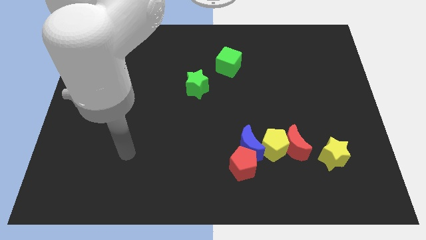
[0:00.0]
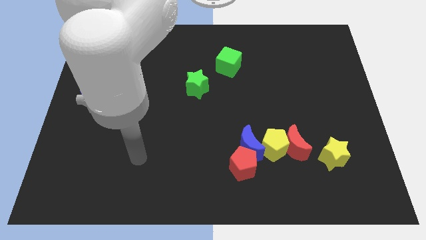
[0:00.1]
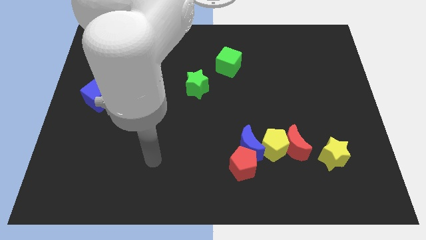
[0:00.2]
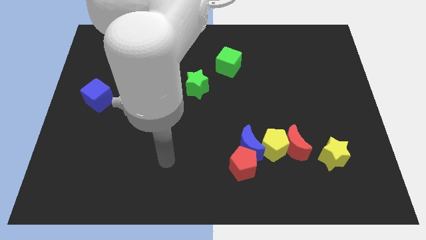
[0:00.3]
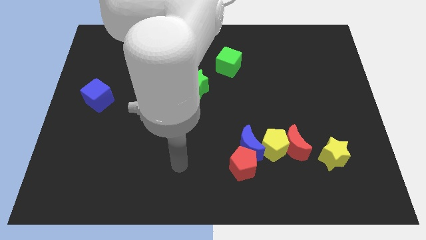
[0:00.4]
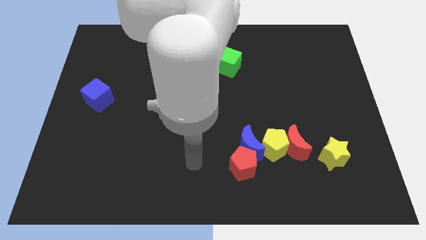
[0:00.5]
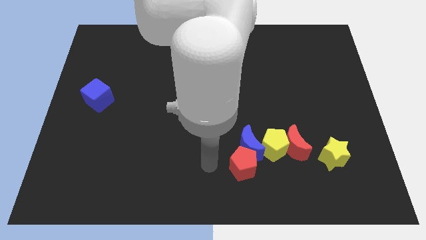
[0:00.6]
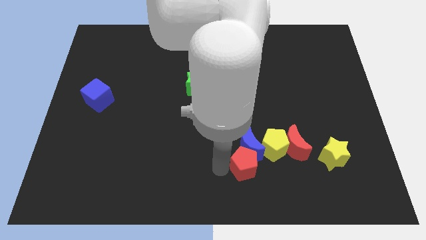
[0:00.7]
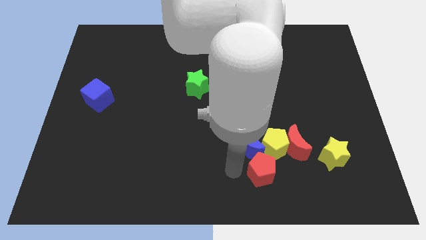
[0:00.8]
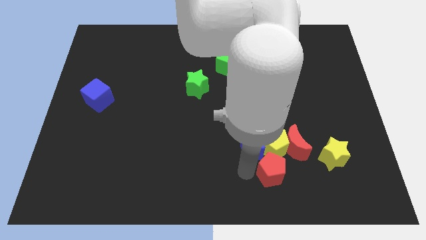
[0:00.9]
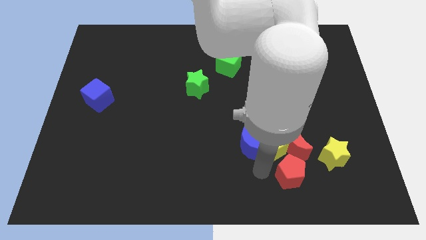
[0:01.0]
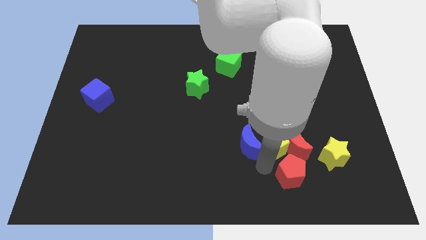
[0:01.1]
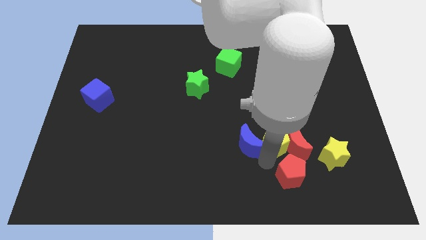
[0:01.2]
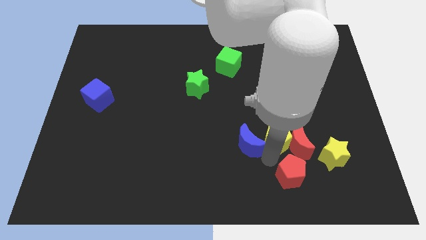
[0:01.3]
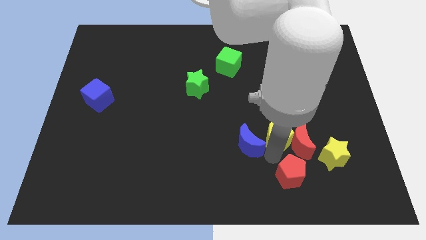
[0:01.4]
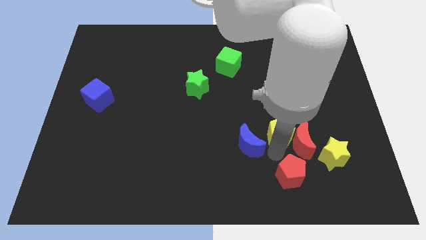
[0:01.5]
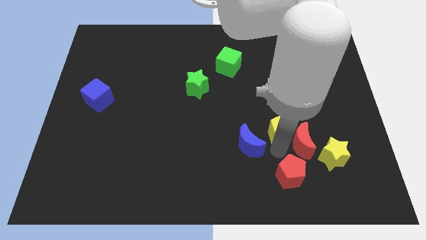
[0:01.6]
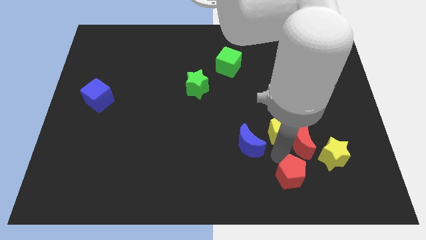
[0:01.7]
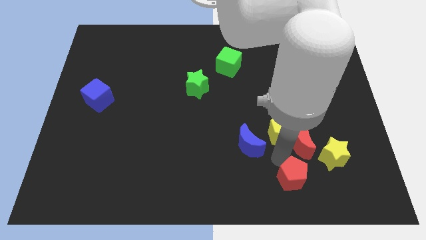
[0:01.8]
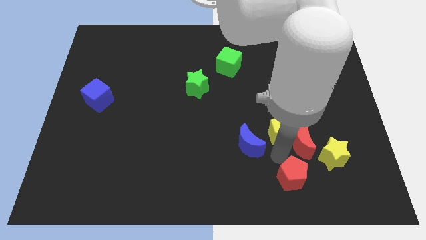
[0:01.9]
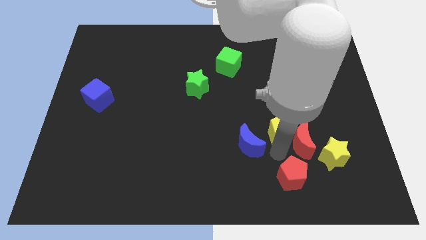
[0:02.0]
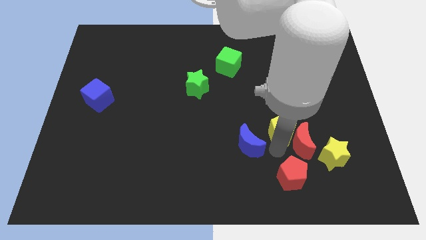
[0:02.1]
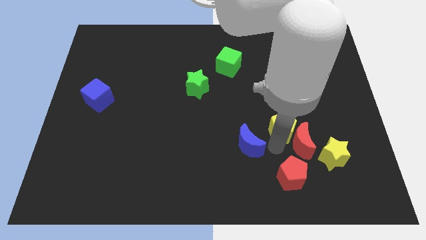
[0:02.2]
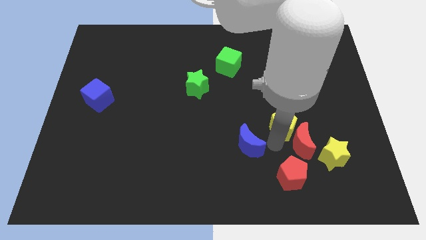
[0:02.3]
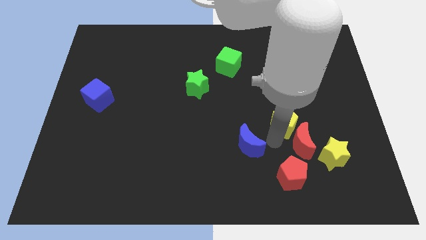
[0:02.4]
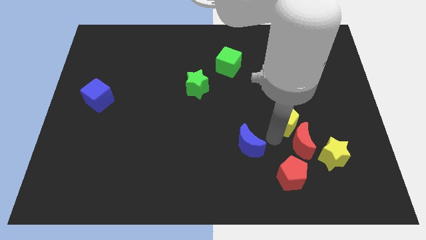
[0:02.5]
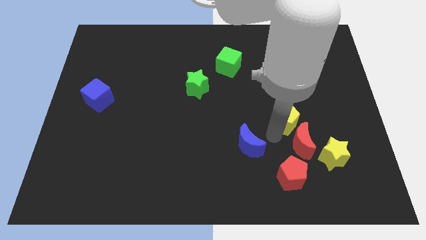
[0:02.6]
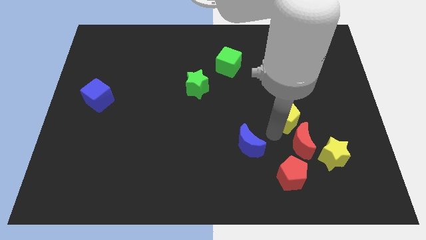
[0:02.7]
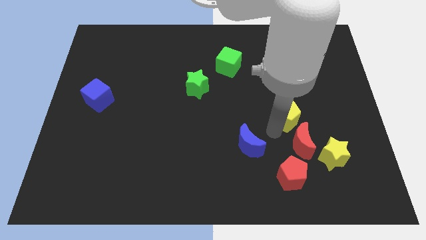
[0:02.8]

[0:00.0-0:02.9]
move the yellow pentagon away from the group

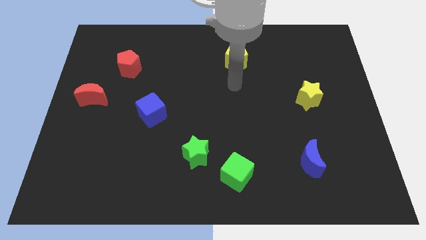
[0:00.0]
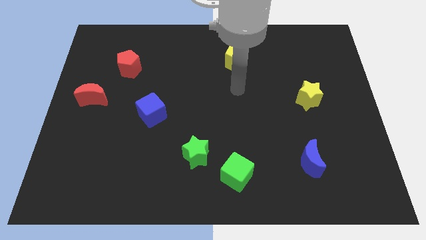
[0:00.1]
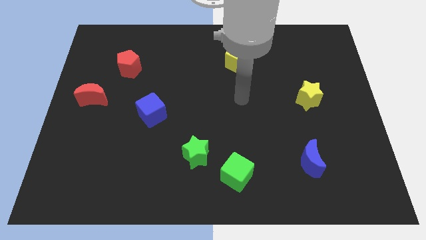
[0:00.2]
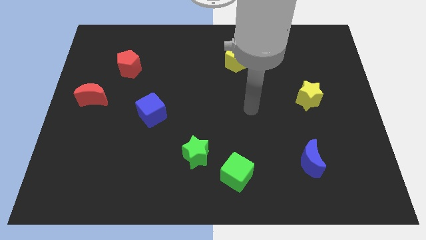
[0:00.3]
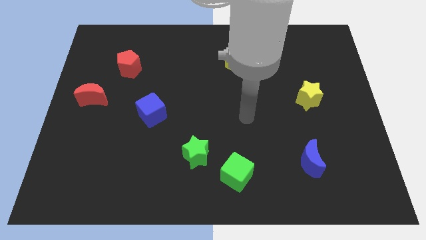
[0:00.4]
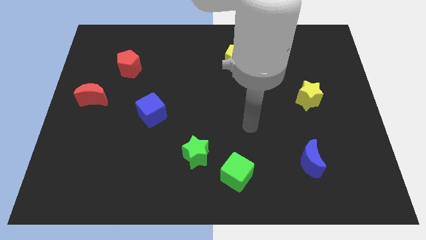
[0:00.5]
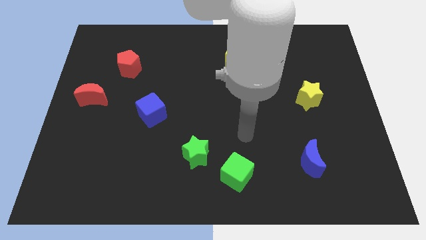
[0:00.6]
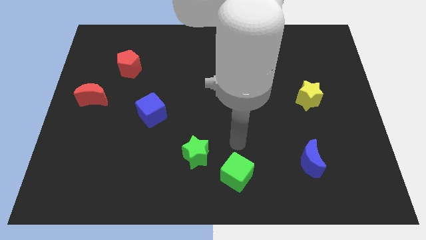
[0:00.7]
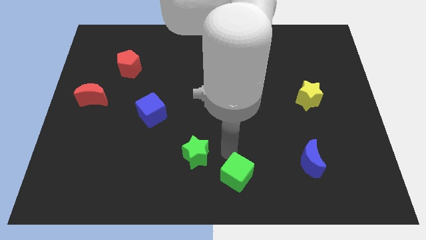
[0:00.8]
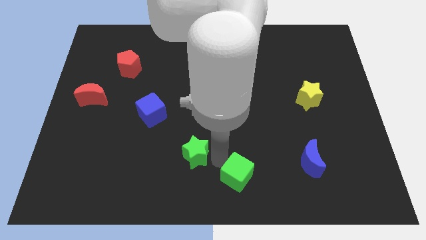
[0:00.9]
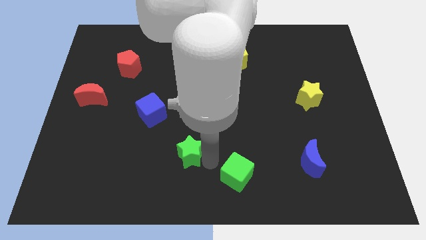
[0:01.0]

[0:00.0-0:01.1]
move the green cube away from the green star

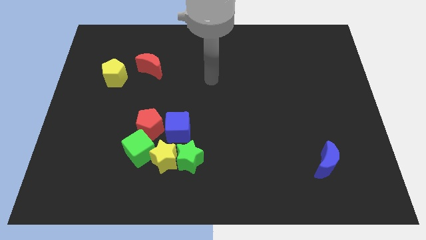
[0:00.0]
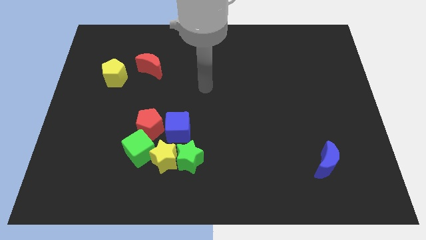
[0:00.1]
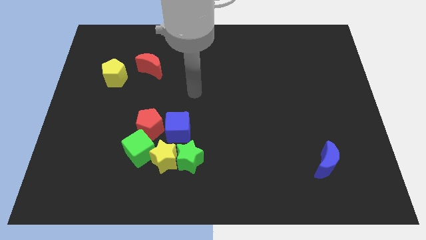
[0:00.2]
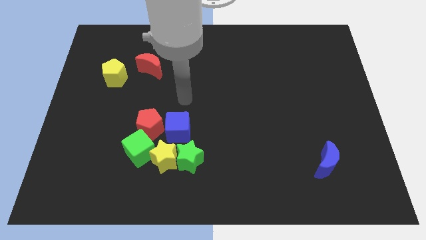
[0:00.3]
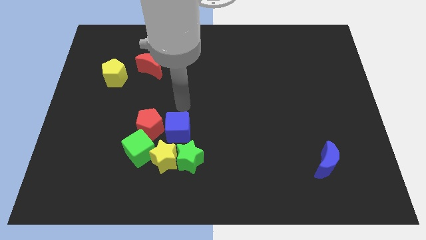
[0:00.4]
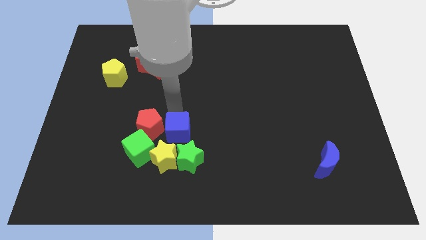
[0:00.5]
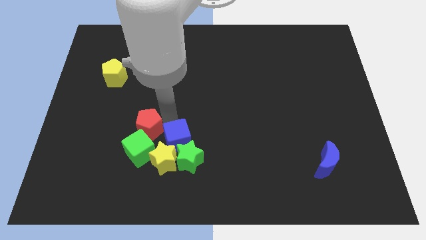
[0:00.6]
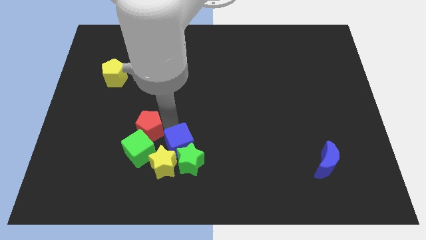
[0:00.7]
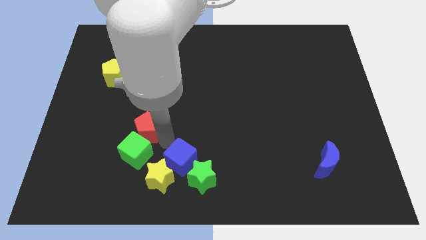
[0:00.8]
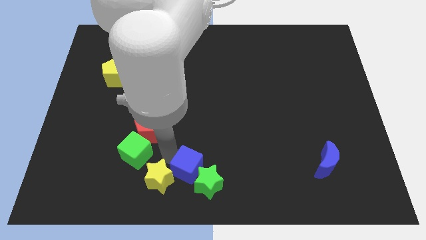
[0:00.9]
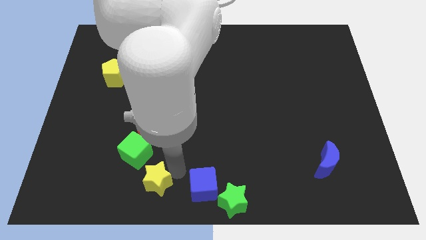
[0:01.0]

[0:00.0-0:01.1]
separate the green star from the yellow star and blue cube

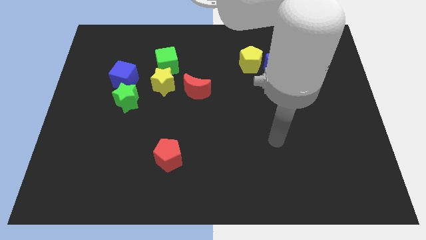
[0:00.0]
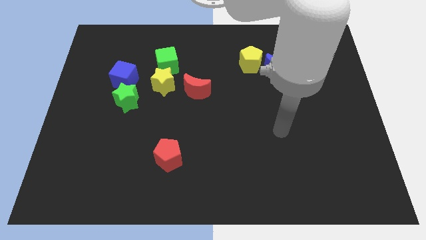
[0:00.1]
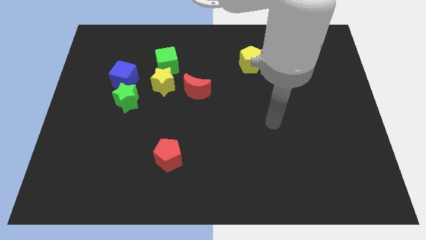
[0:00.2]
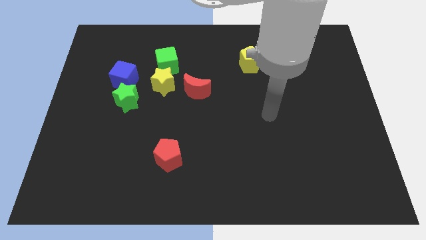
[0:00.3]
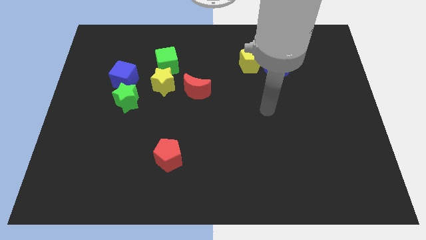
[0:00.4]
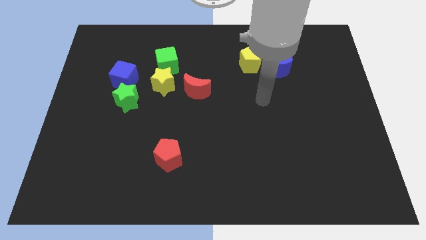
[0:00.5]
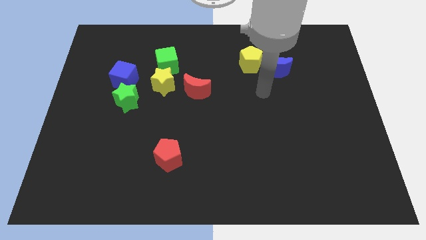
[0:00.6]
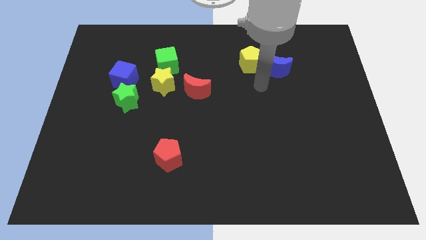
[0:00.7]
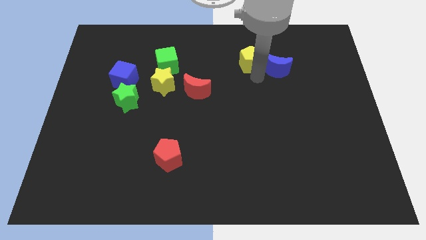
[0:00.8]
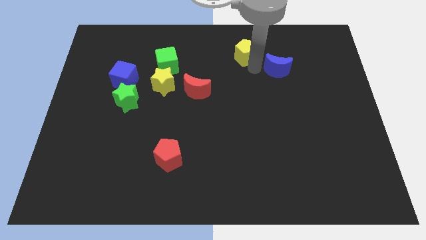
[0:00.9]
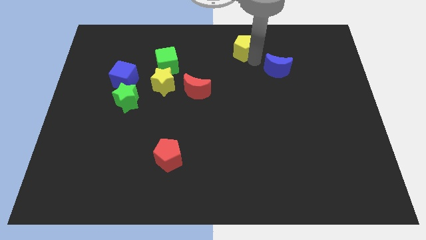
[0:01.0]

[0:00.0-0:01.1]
pull the blue moon apart from the yellow pentagon

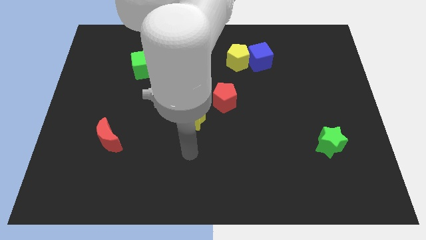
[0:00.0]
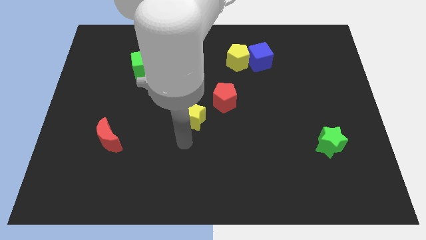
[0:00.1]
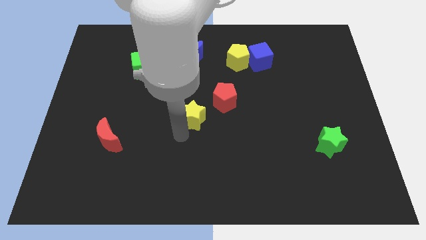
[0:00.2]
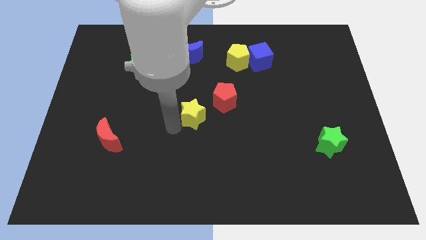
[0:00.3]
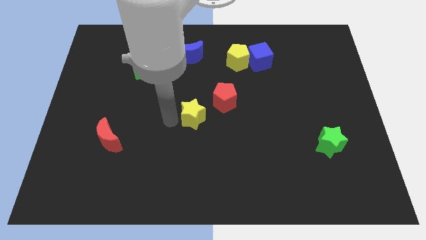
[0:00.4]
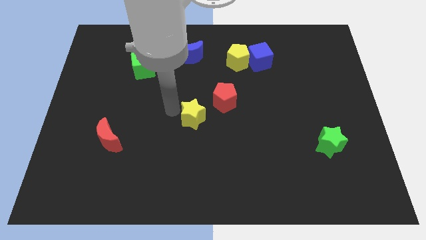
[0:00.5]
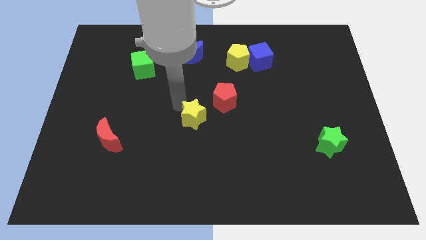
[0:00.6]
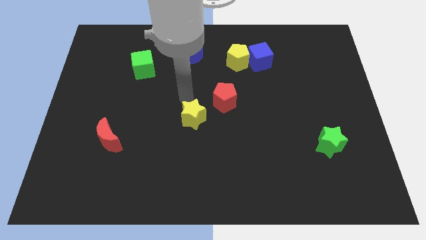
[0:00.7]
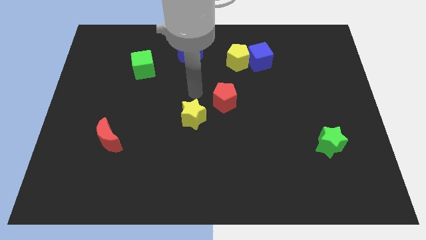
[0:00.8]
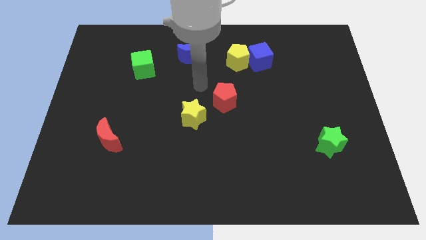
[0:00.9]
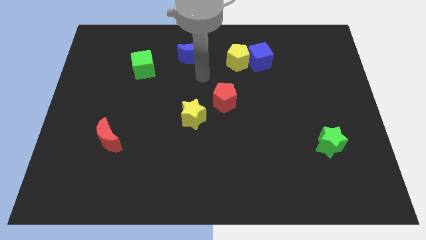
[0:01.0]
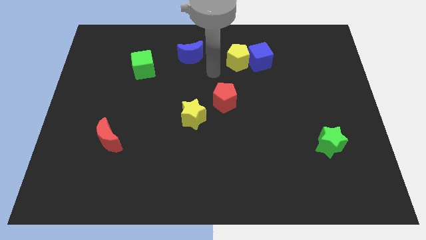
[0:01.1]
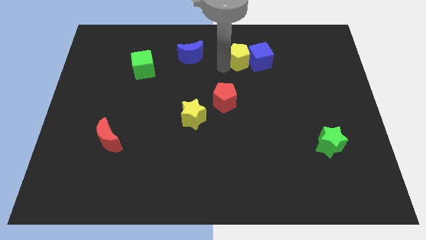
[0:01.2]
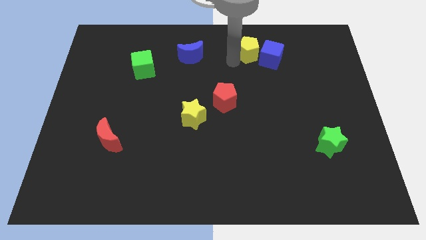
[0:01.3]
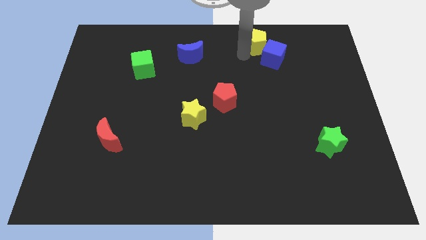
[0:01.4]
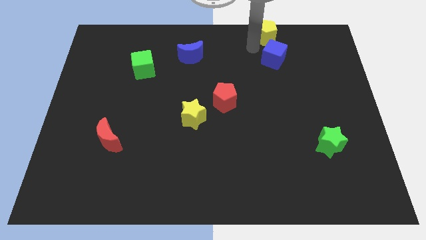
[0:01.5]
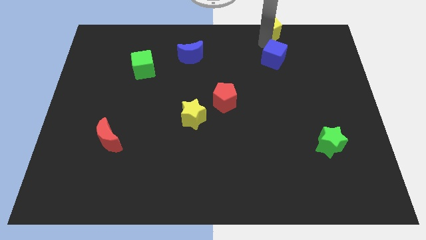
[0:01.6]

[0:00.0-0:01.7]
move the blue cube away from the yellow pentagon

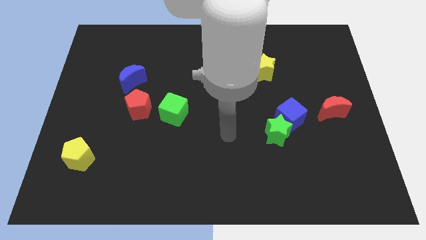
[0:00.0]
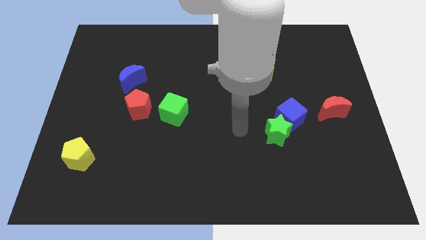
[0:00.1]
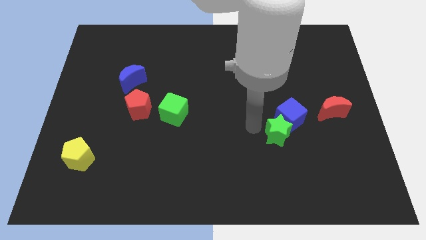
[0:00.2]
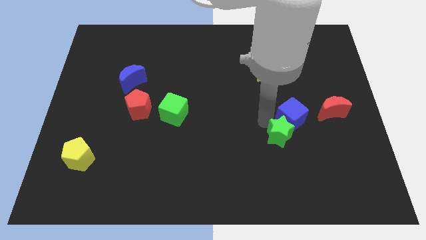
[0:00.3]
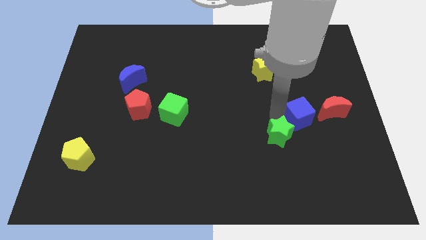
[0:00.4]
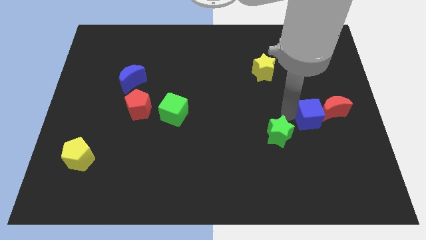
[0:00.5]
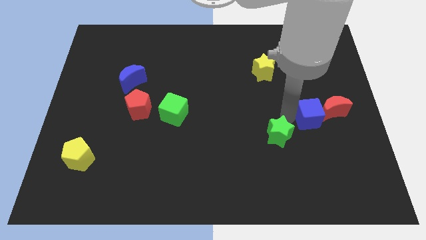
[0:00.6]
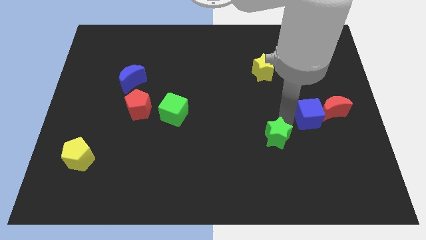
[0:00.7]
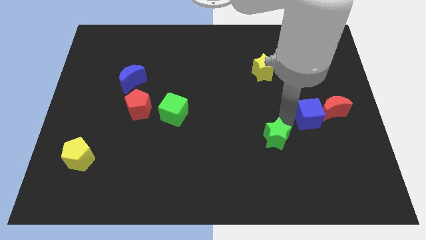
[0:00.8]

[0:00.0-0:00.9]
move the green star away from the blue cube

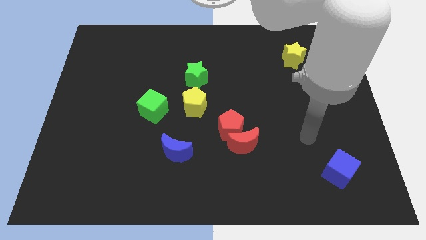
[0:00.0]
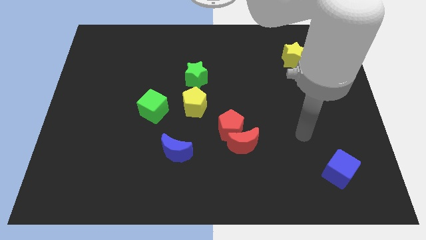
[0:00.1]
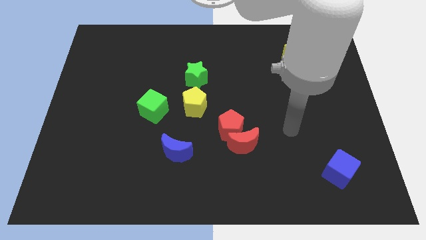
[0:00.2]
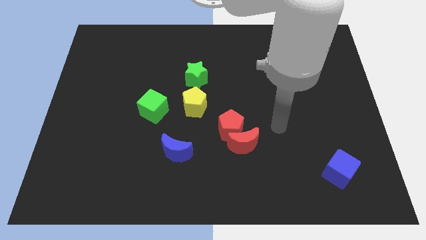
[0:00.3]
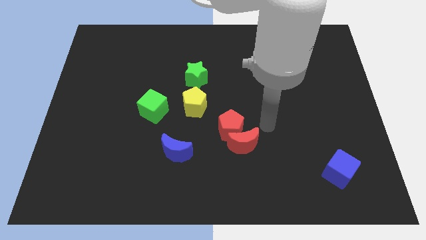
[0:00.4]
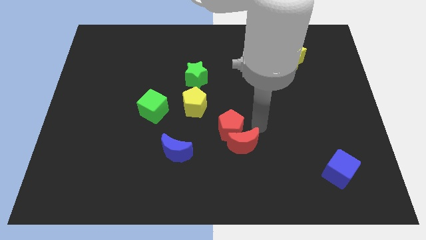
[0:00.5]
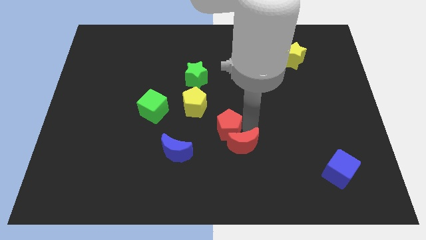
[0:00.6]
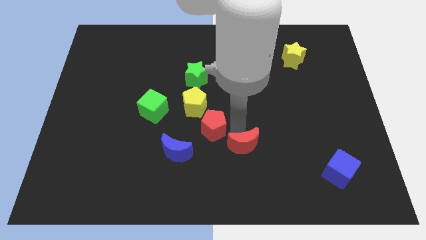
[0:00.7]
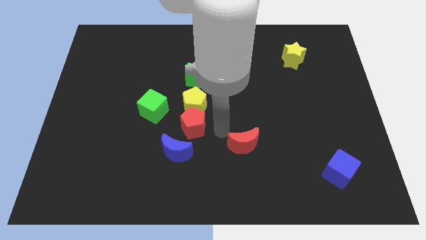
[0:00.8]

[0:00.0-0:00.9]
pull the red moon apart from the red pentagon
